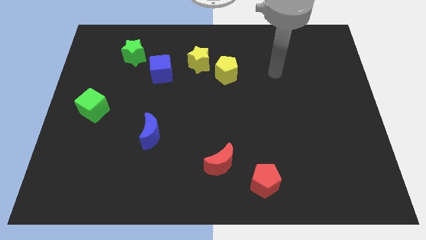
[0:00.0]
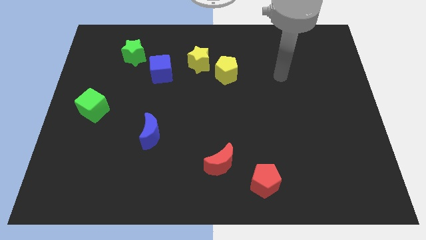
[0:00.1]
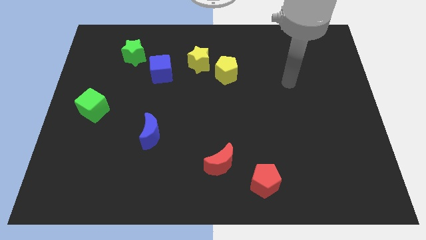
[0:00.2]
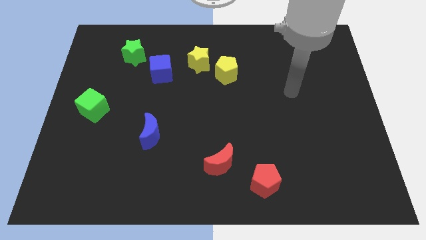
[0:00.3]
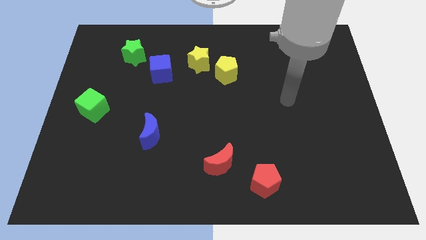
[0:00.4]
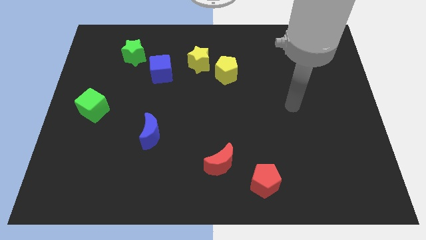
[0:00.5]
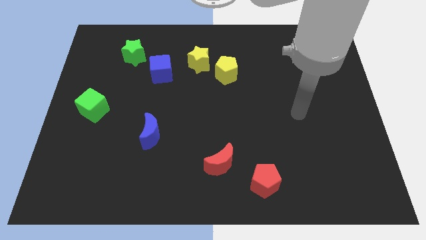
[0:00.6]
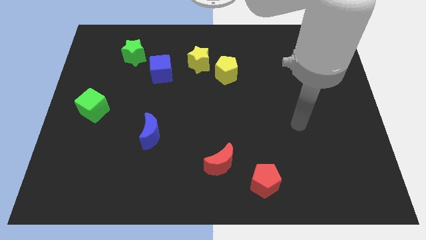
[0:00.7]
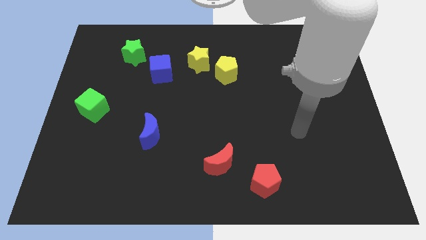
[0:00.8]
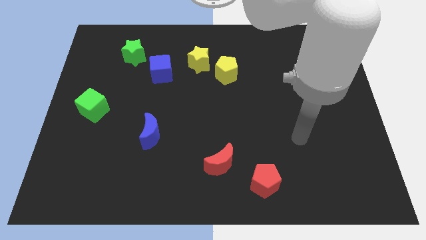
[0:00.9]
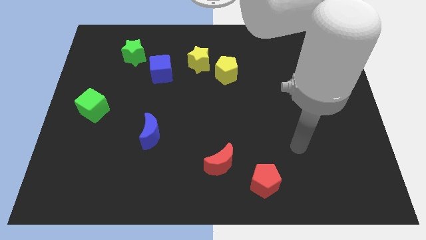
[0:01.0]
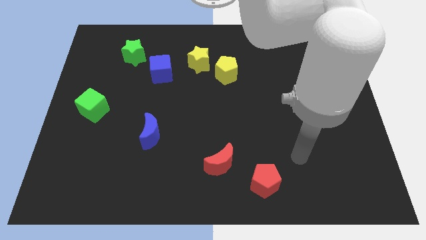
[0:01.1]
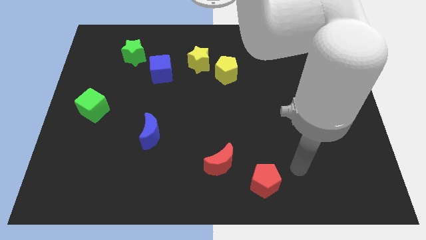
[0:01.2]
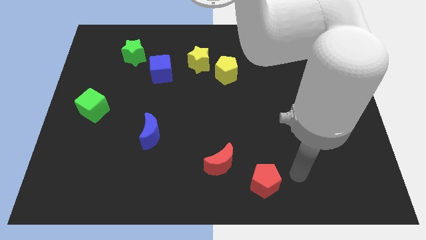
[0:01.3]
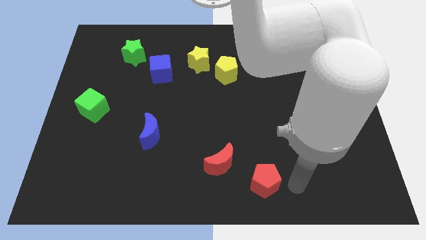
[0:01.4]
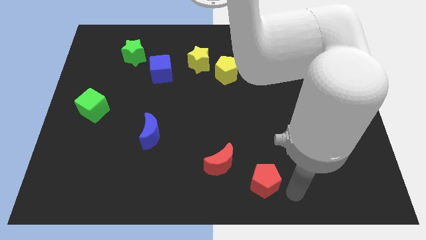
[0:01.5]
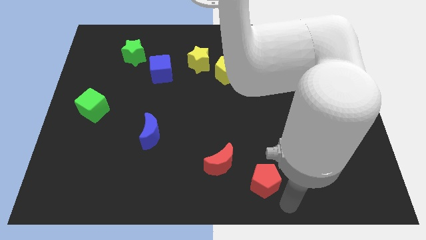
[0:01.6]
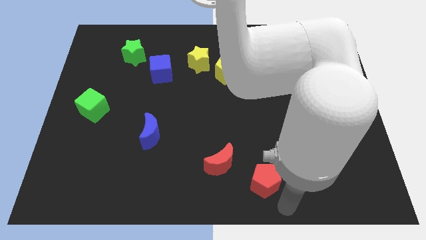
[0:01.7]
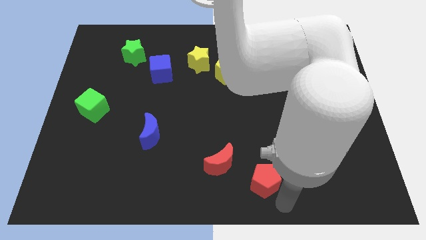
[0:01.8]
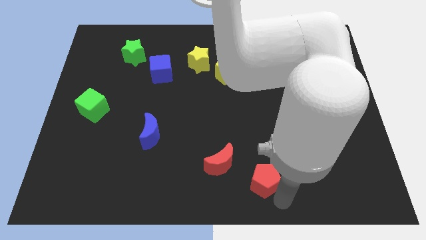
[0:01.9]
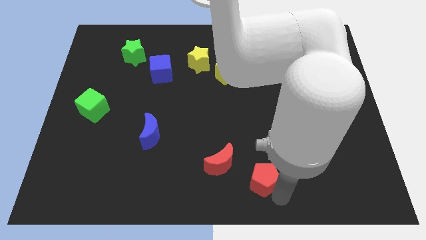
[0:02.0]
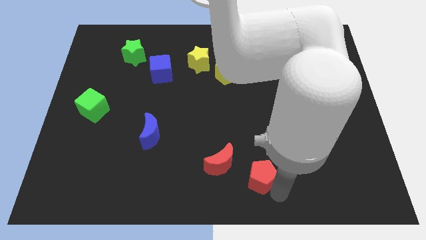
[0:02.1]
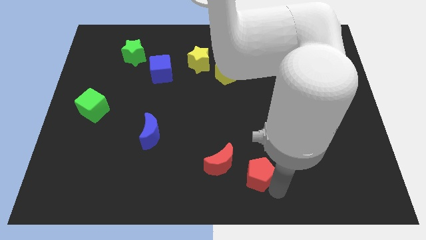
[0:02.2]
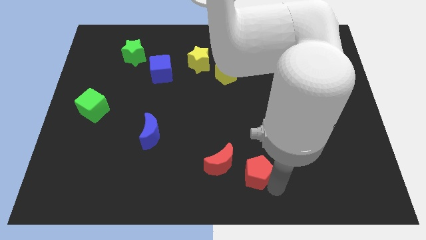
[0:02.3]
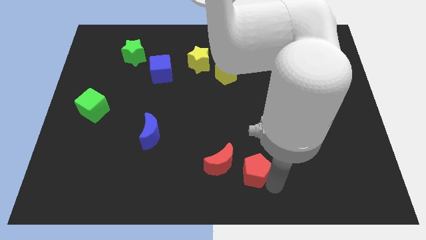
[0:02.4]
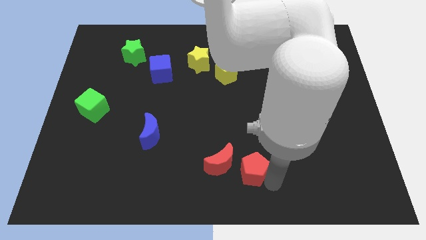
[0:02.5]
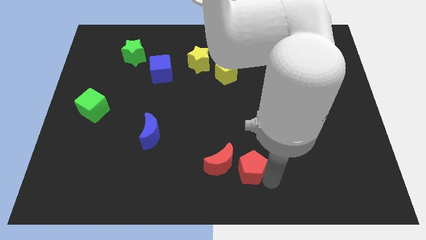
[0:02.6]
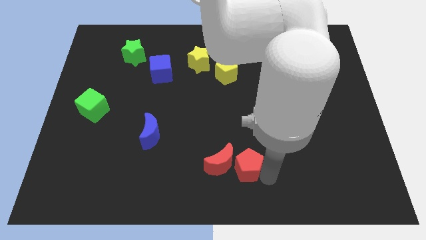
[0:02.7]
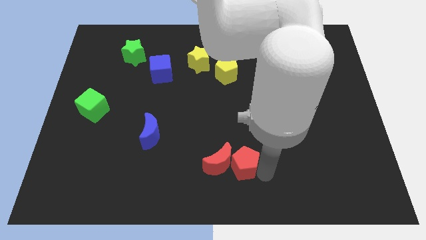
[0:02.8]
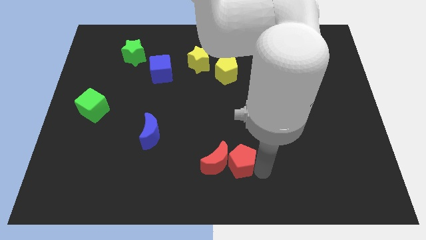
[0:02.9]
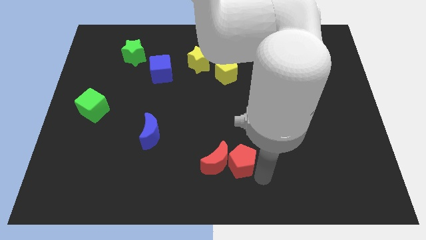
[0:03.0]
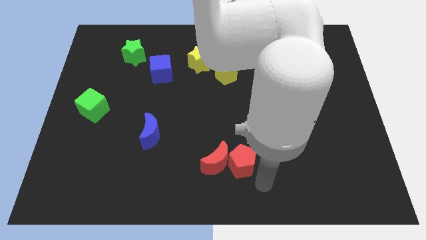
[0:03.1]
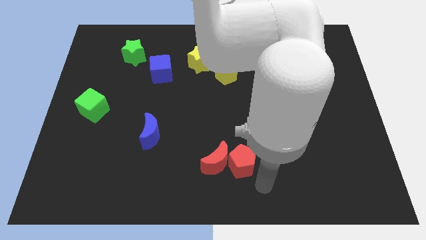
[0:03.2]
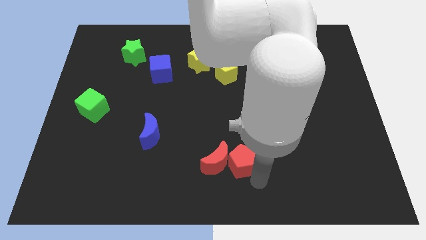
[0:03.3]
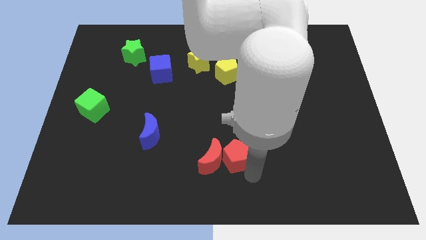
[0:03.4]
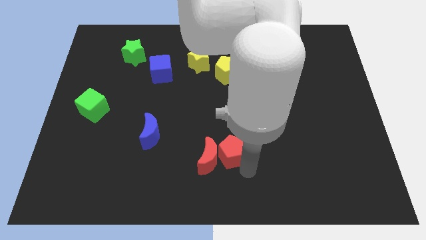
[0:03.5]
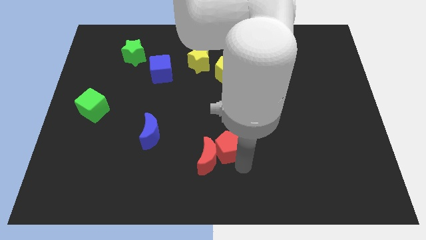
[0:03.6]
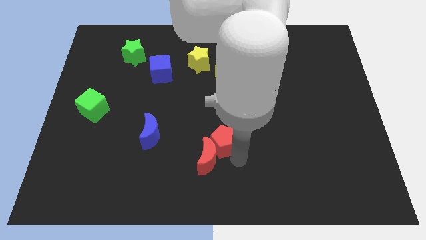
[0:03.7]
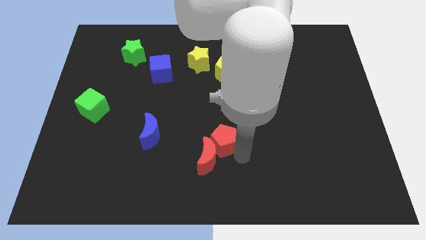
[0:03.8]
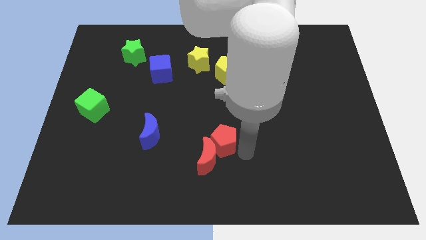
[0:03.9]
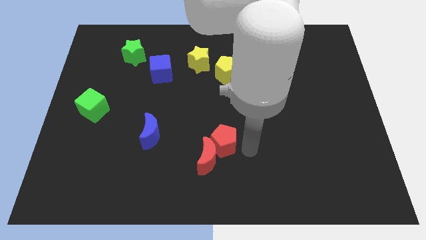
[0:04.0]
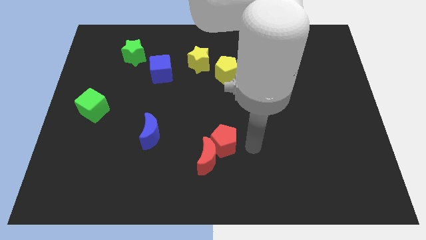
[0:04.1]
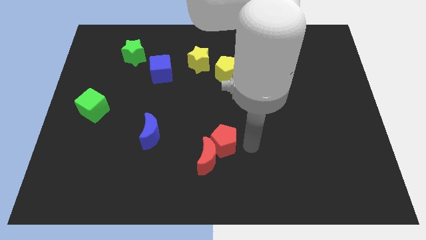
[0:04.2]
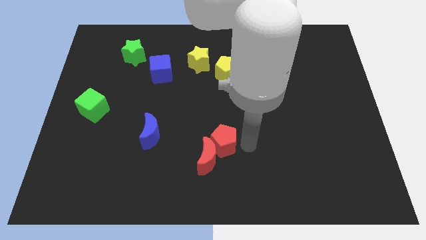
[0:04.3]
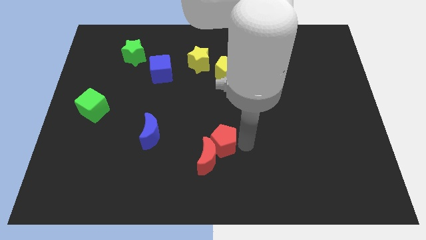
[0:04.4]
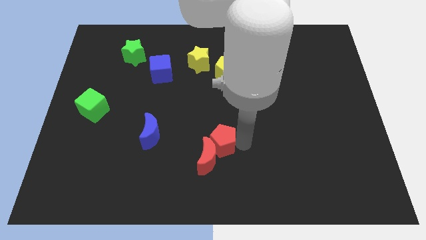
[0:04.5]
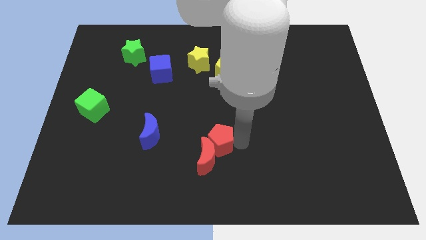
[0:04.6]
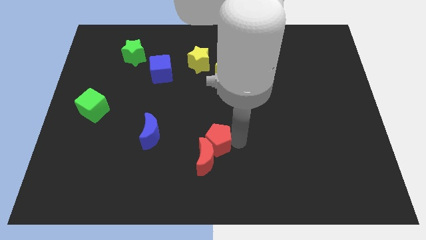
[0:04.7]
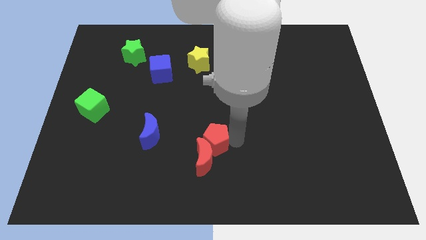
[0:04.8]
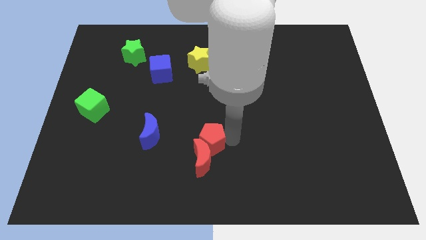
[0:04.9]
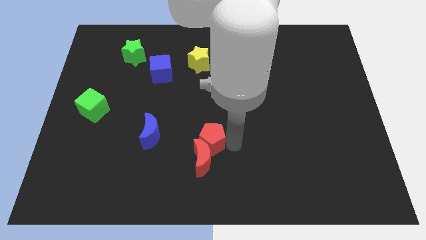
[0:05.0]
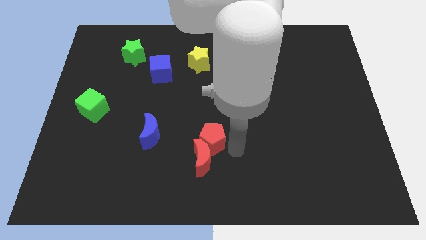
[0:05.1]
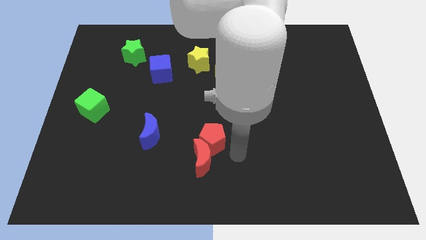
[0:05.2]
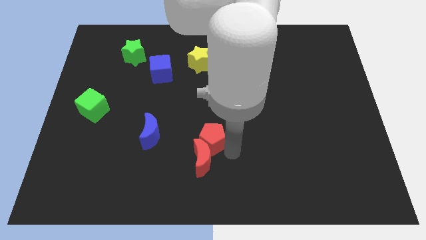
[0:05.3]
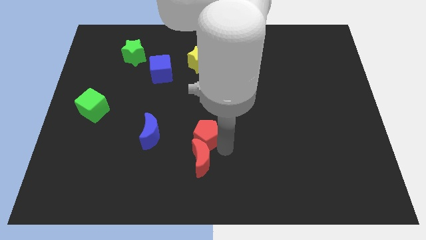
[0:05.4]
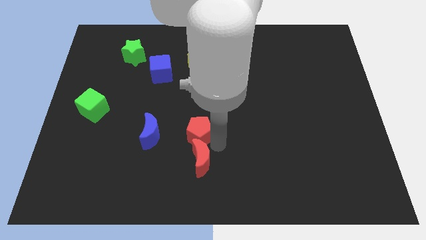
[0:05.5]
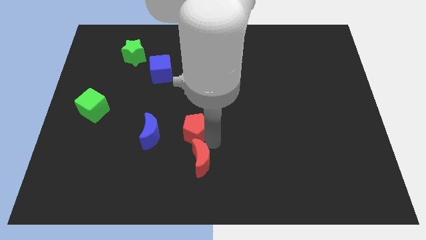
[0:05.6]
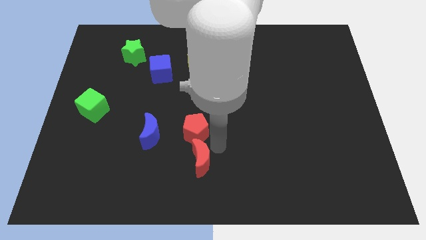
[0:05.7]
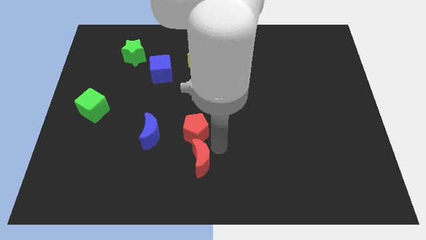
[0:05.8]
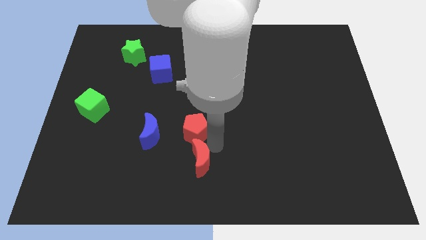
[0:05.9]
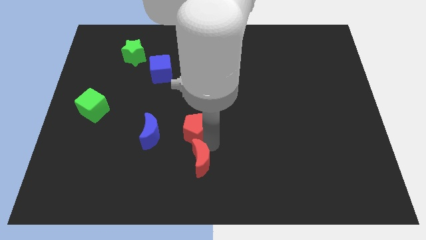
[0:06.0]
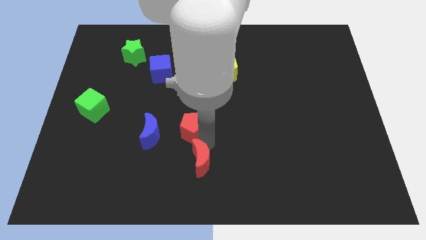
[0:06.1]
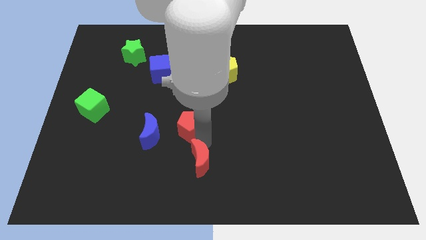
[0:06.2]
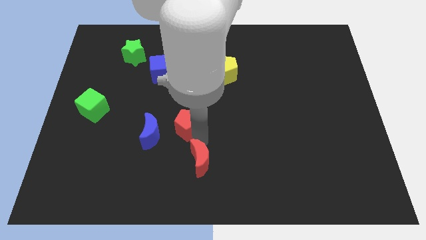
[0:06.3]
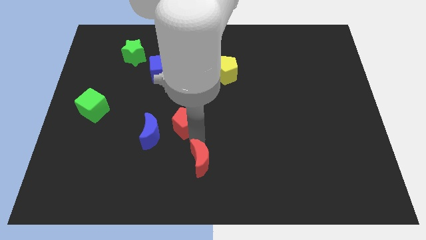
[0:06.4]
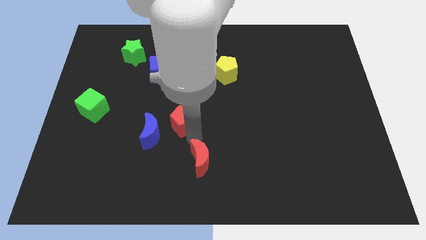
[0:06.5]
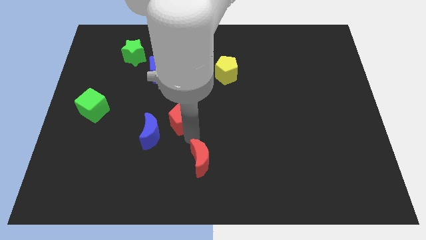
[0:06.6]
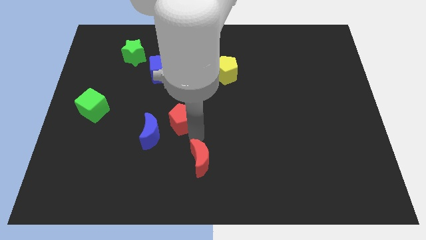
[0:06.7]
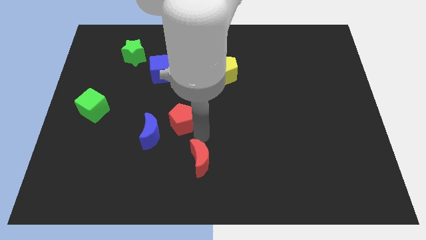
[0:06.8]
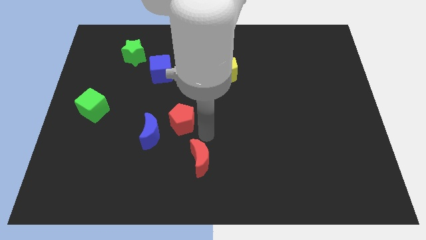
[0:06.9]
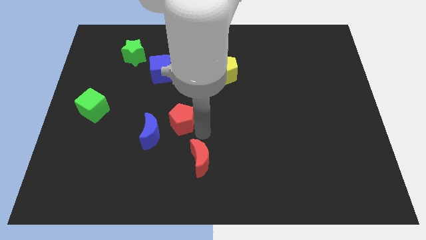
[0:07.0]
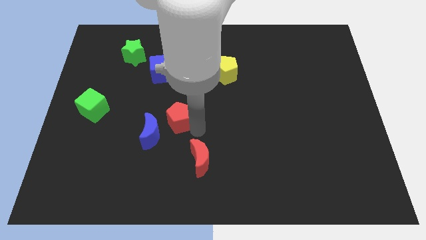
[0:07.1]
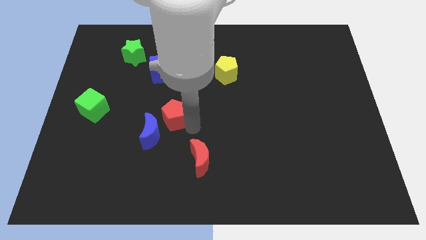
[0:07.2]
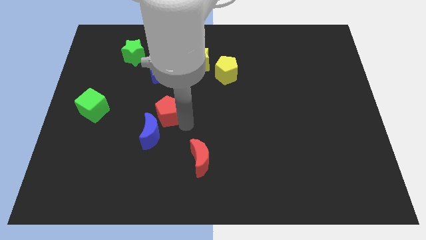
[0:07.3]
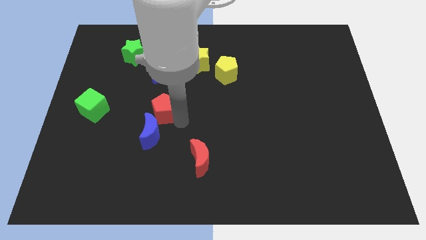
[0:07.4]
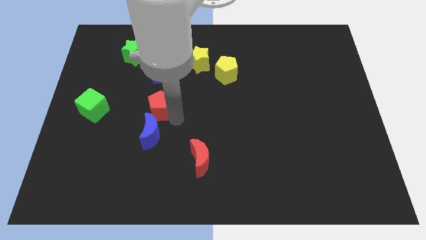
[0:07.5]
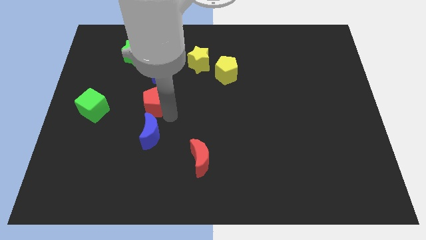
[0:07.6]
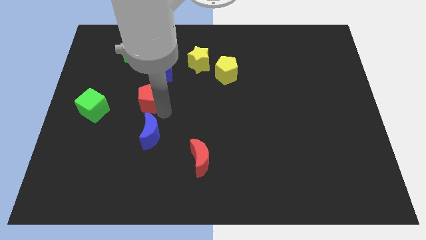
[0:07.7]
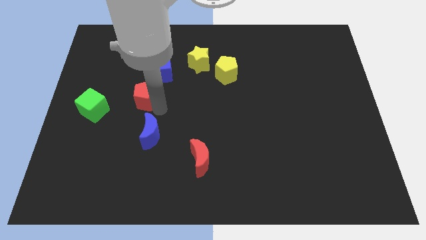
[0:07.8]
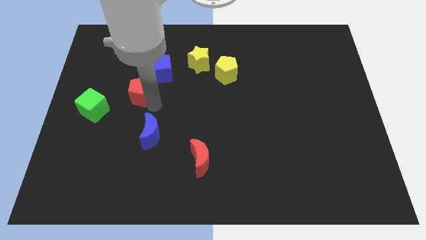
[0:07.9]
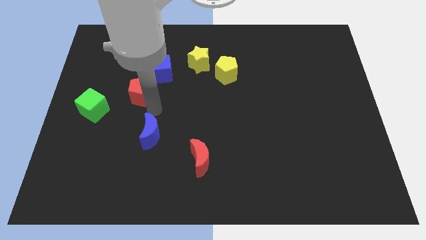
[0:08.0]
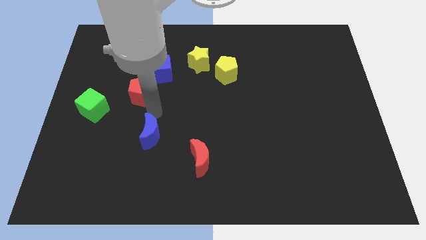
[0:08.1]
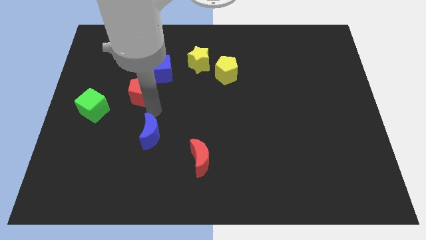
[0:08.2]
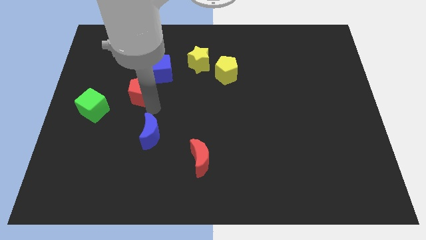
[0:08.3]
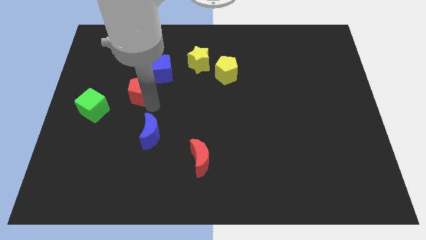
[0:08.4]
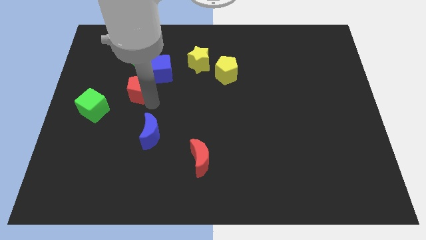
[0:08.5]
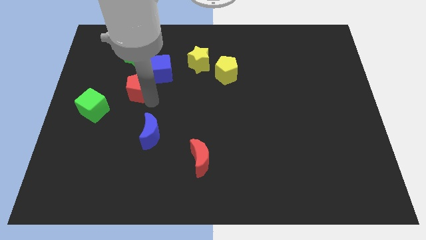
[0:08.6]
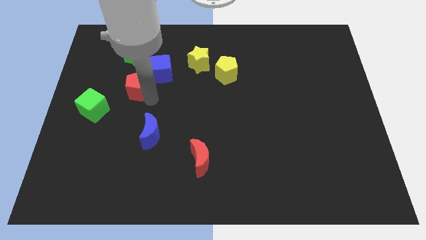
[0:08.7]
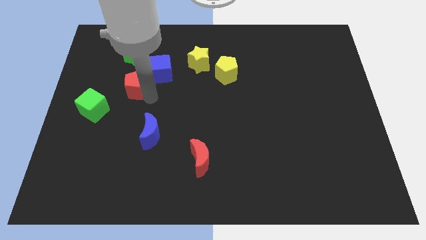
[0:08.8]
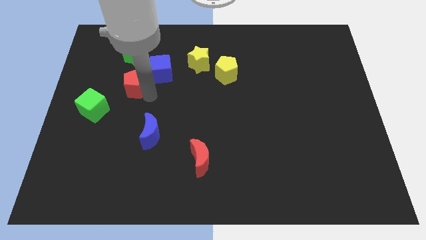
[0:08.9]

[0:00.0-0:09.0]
move the red pentagon just left of the blue cube
